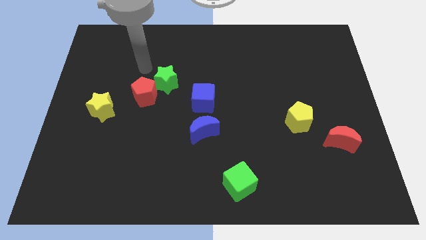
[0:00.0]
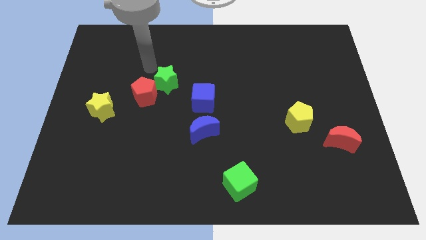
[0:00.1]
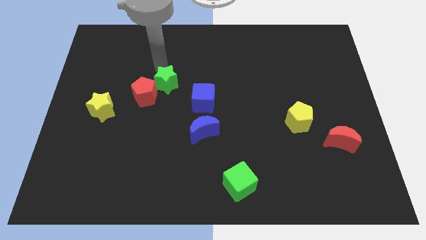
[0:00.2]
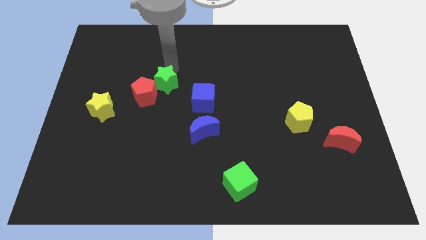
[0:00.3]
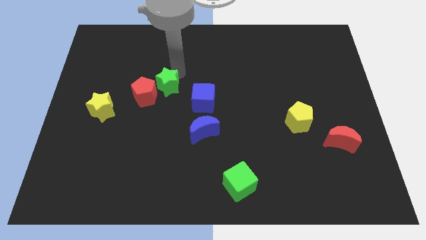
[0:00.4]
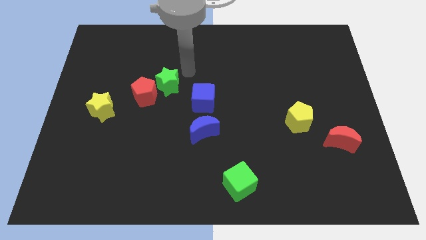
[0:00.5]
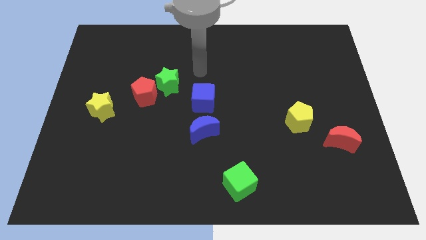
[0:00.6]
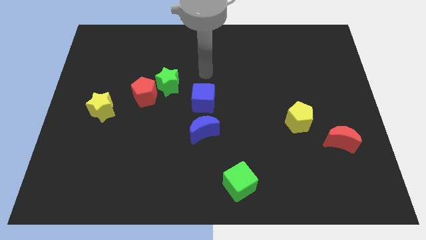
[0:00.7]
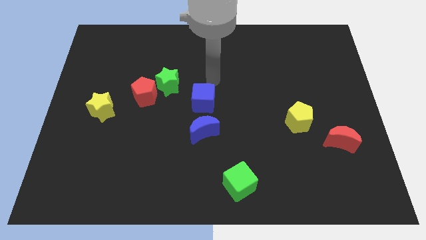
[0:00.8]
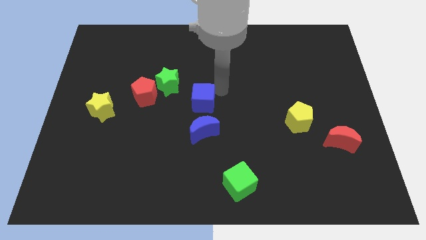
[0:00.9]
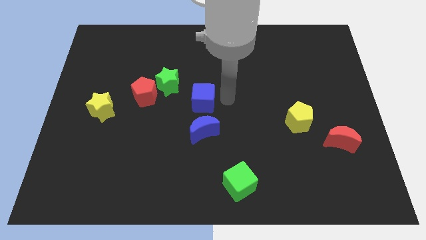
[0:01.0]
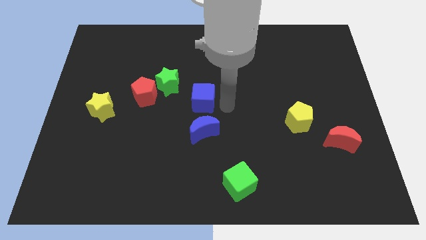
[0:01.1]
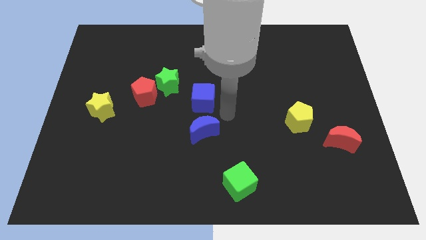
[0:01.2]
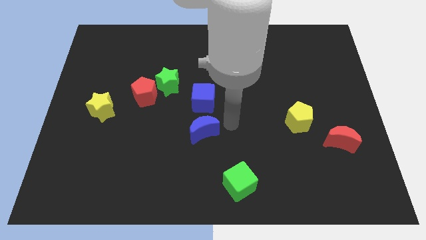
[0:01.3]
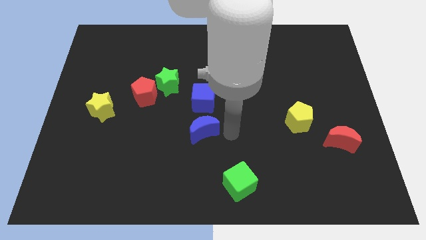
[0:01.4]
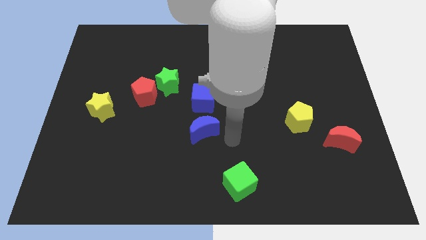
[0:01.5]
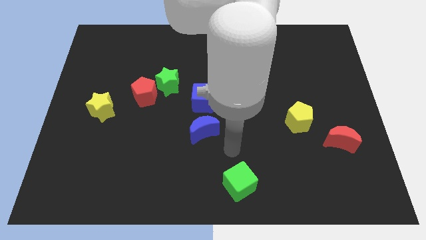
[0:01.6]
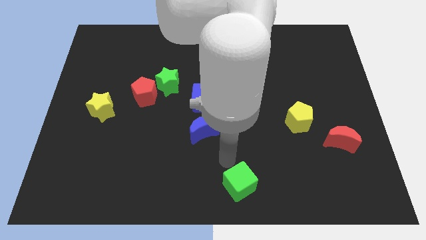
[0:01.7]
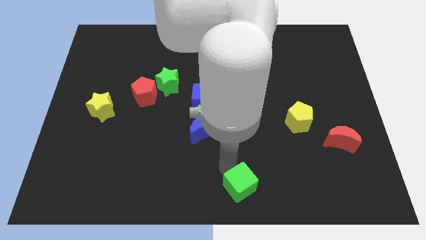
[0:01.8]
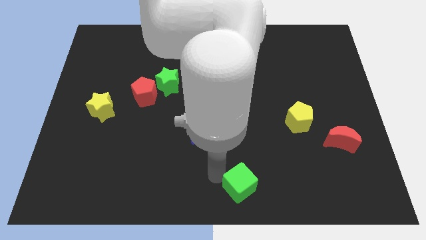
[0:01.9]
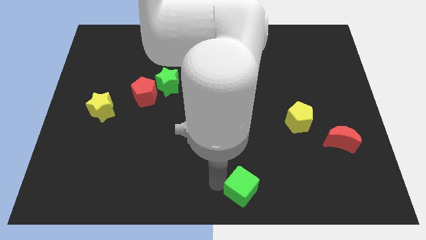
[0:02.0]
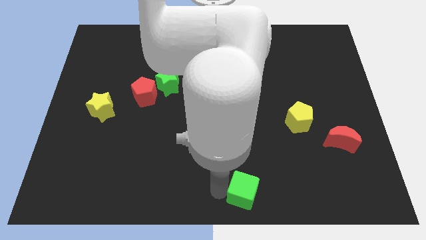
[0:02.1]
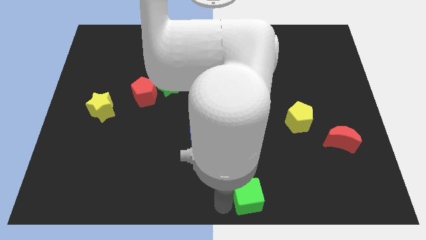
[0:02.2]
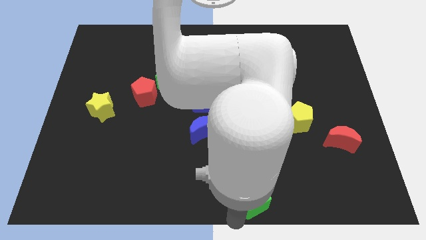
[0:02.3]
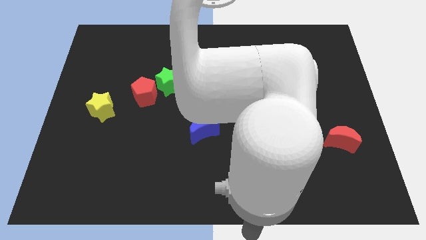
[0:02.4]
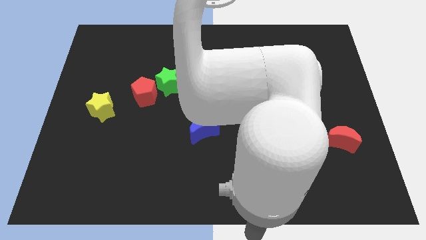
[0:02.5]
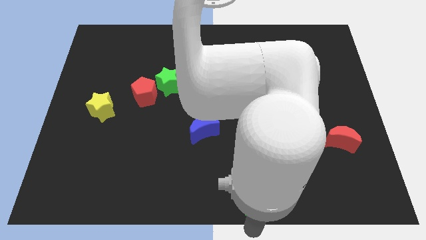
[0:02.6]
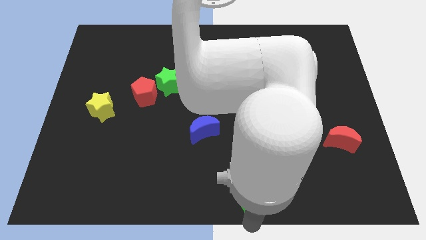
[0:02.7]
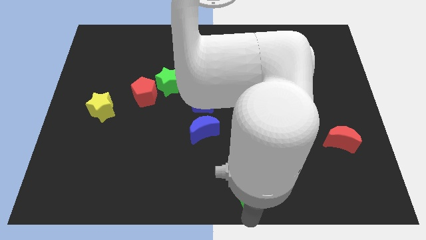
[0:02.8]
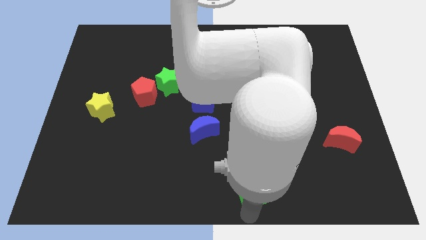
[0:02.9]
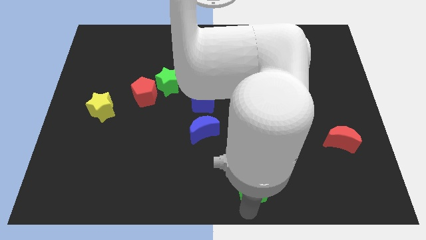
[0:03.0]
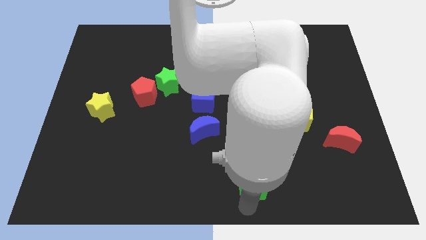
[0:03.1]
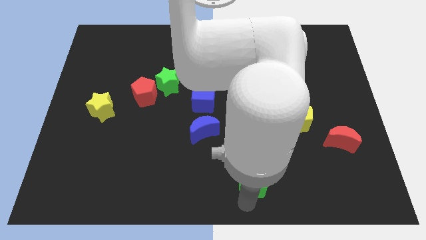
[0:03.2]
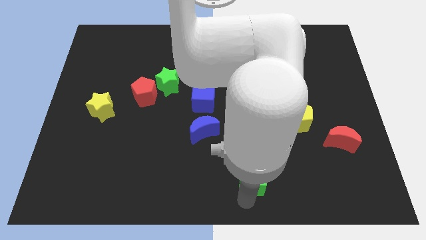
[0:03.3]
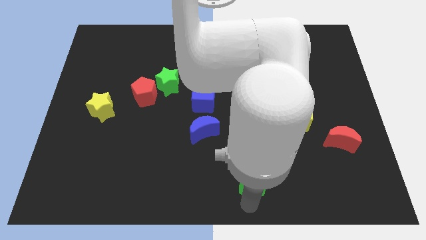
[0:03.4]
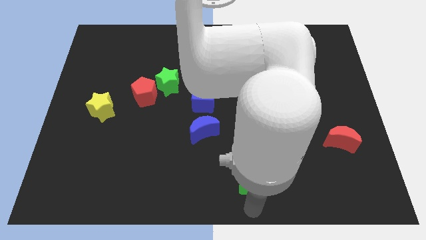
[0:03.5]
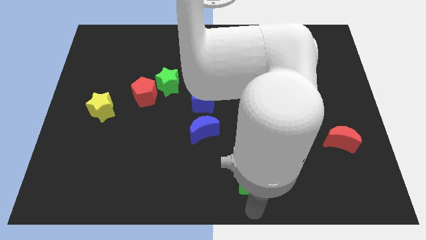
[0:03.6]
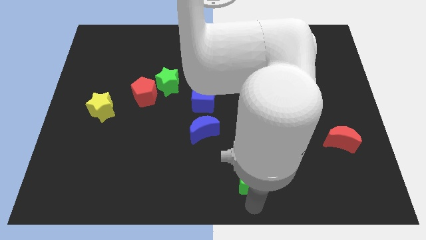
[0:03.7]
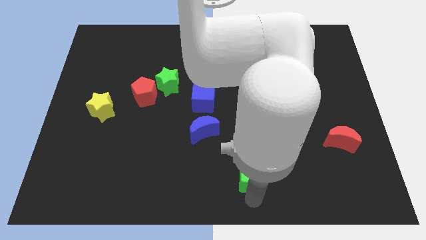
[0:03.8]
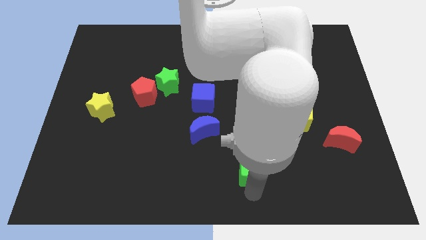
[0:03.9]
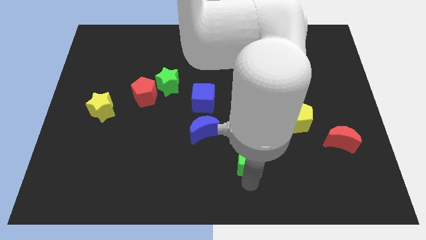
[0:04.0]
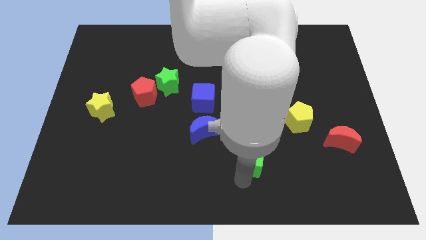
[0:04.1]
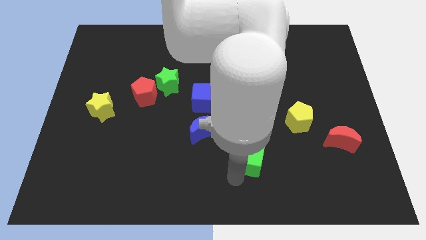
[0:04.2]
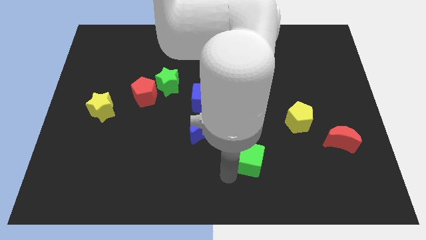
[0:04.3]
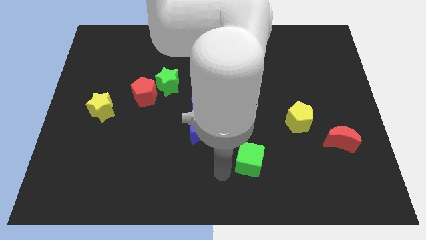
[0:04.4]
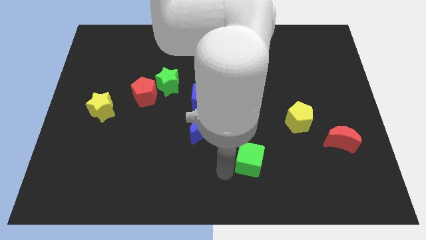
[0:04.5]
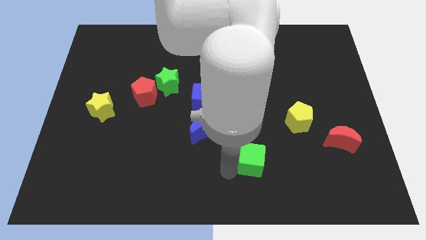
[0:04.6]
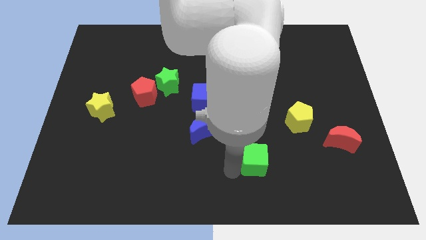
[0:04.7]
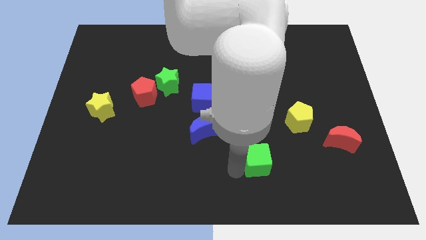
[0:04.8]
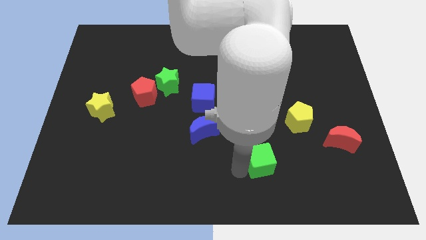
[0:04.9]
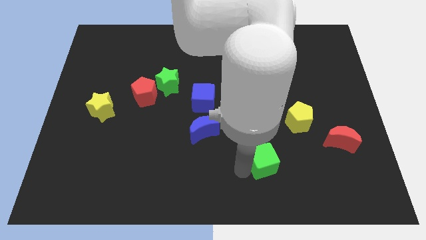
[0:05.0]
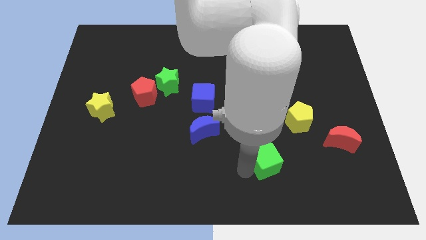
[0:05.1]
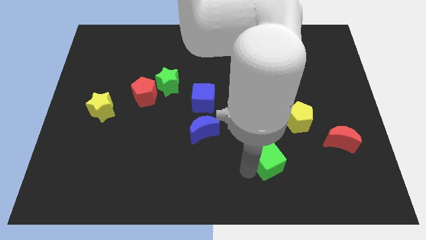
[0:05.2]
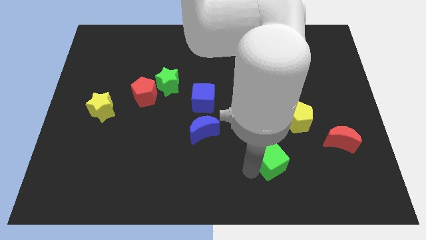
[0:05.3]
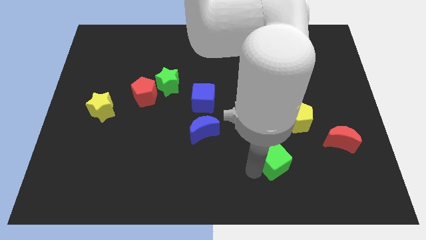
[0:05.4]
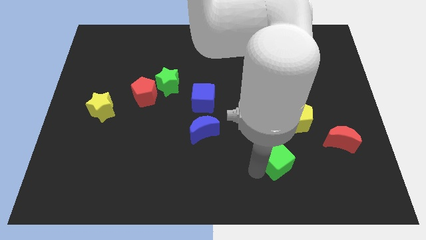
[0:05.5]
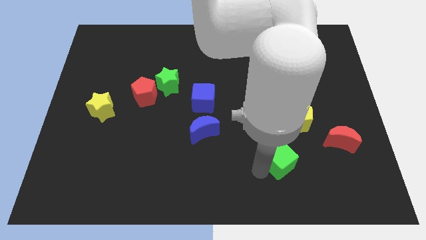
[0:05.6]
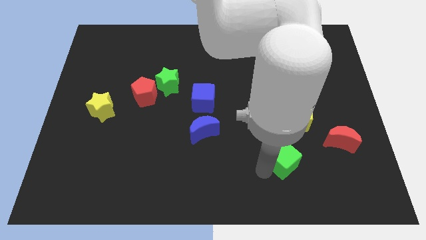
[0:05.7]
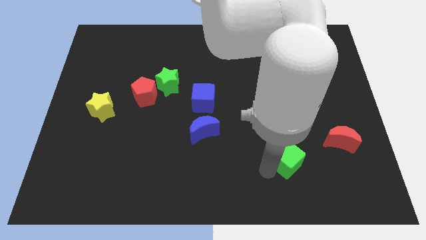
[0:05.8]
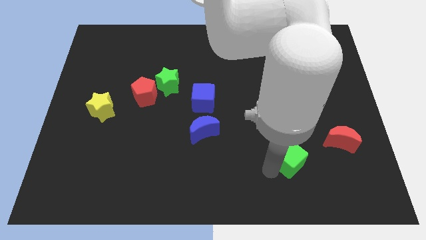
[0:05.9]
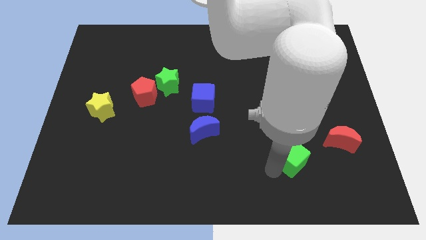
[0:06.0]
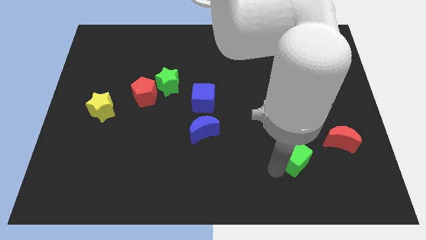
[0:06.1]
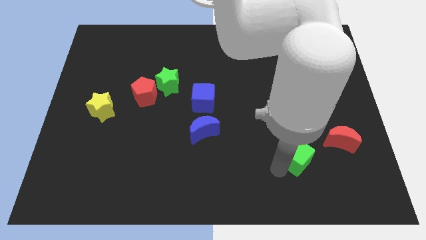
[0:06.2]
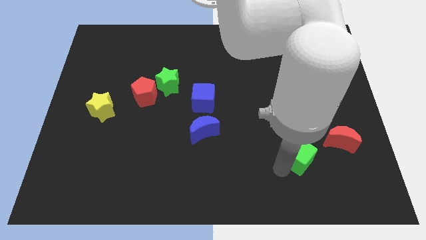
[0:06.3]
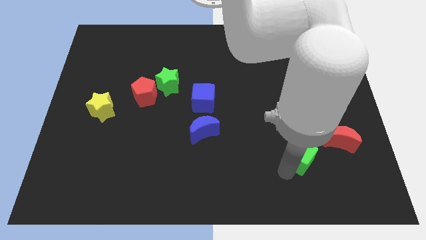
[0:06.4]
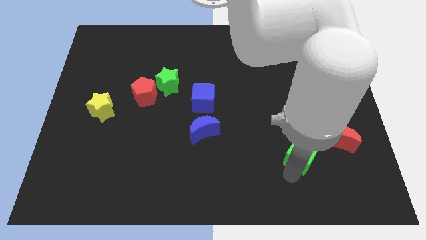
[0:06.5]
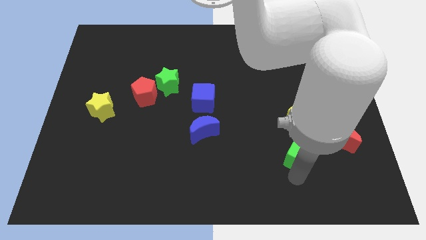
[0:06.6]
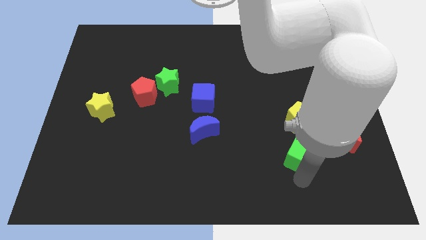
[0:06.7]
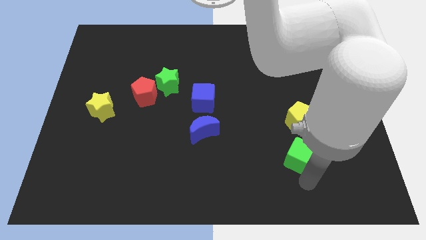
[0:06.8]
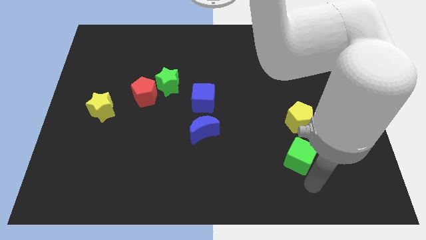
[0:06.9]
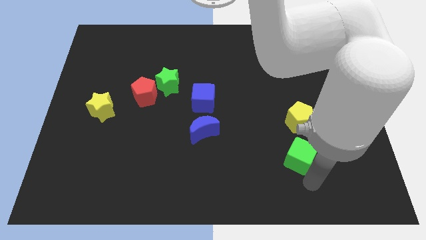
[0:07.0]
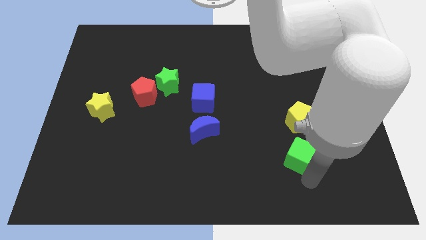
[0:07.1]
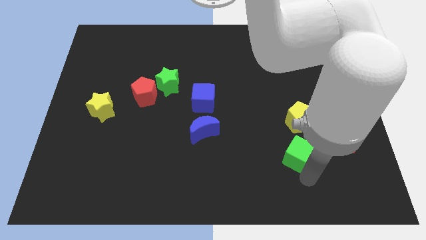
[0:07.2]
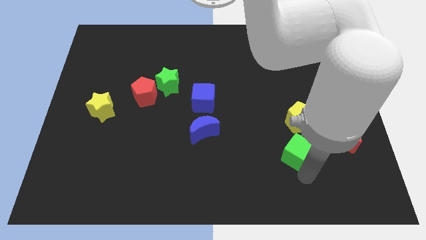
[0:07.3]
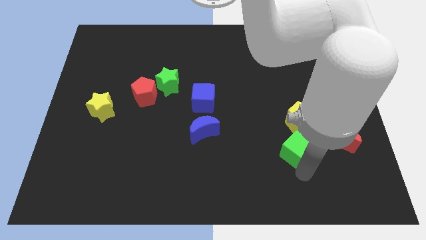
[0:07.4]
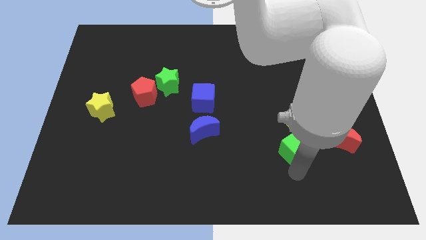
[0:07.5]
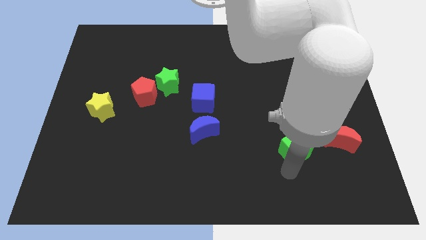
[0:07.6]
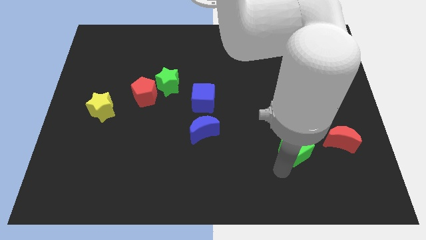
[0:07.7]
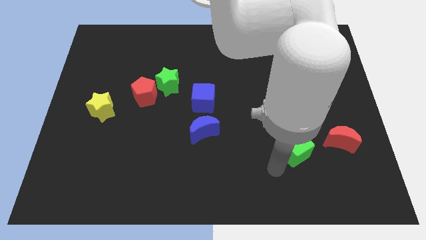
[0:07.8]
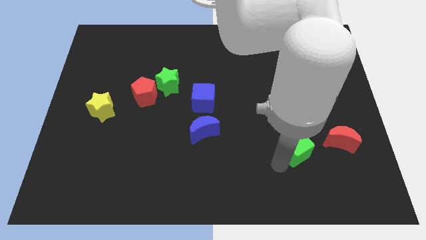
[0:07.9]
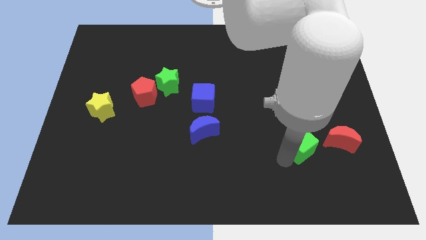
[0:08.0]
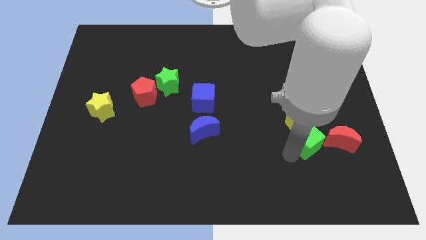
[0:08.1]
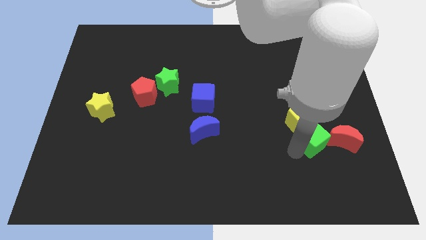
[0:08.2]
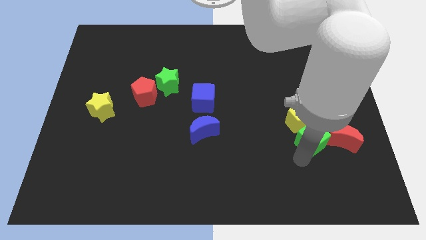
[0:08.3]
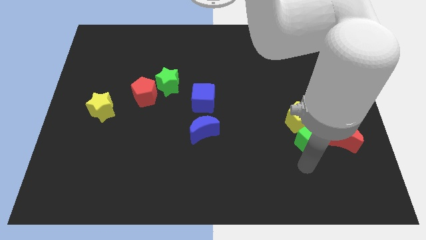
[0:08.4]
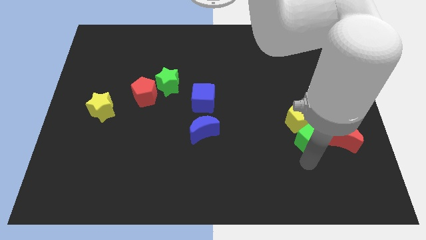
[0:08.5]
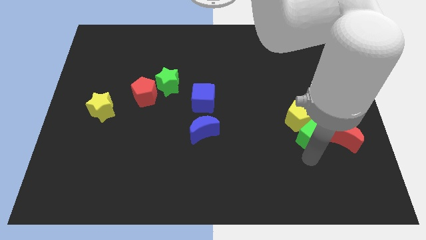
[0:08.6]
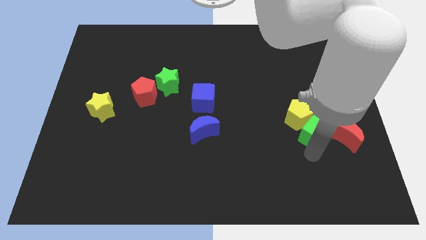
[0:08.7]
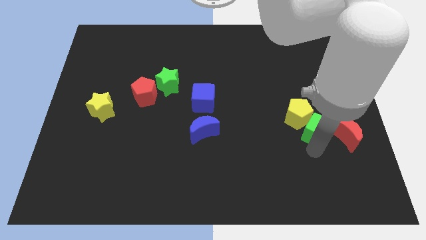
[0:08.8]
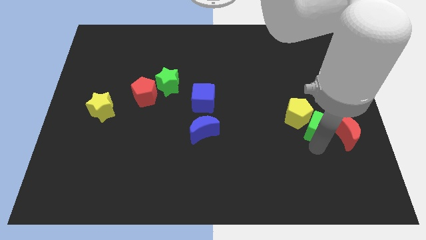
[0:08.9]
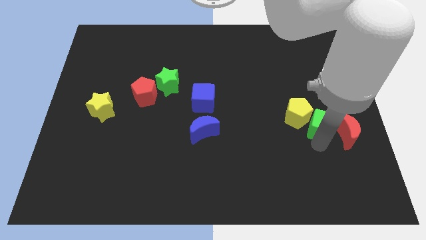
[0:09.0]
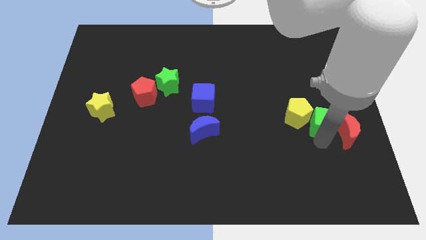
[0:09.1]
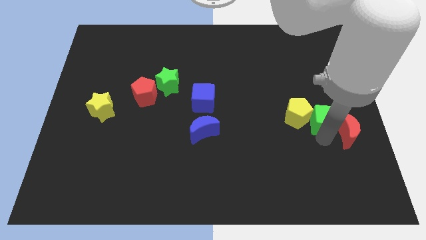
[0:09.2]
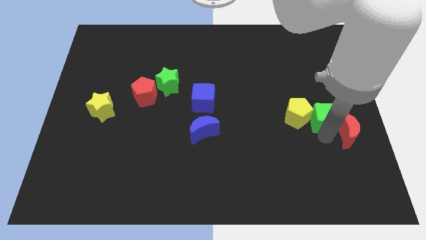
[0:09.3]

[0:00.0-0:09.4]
put the green cube diagonally up and to the right of the yellow pentagon
